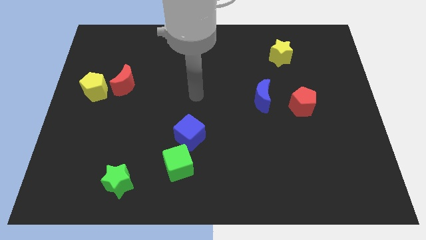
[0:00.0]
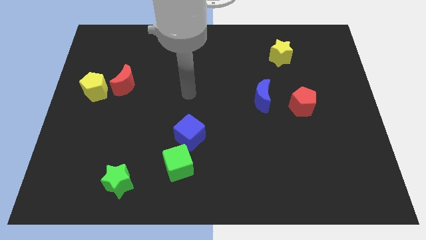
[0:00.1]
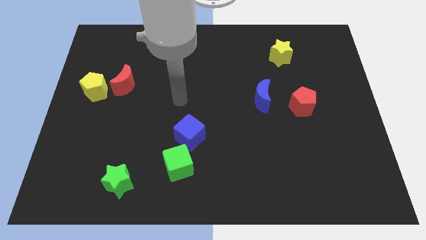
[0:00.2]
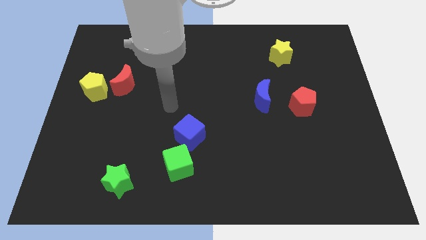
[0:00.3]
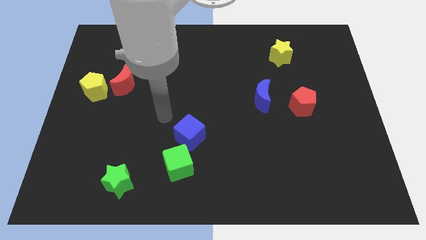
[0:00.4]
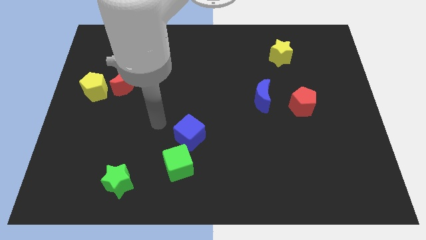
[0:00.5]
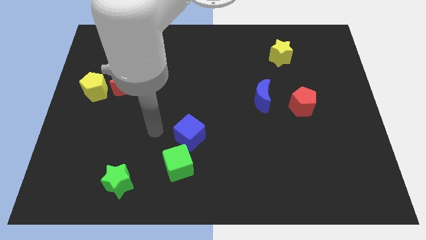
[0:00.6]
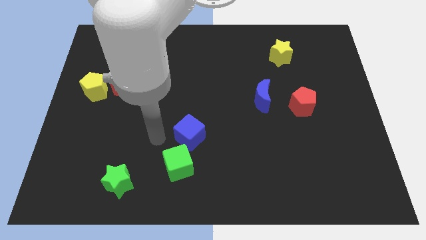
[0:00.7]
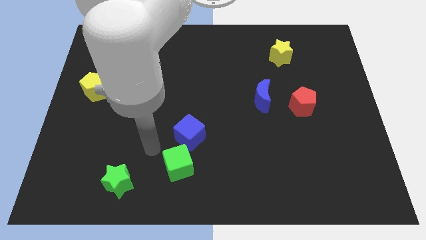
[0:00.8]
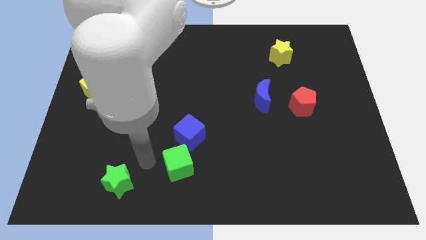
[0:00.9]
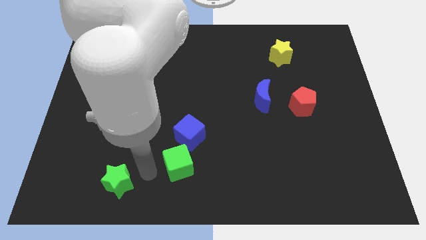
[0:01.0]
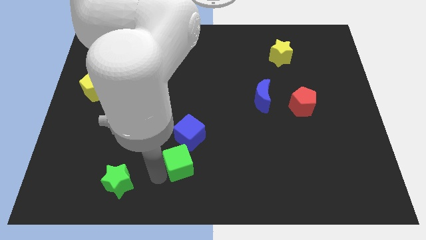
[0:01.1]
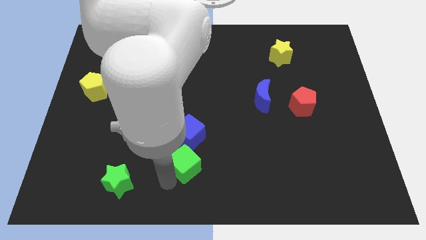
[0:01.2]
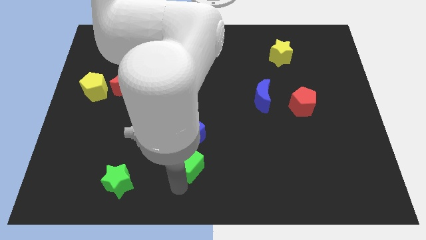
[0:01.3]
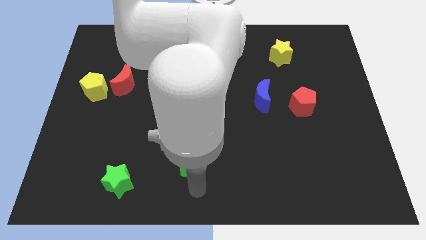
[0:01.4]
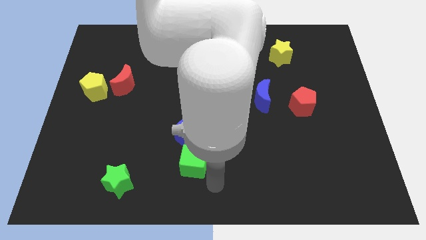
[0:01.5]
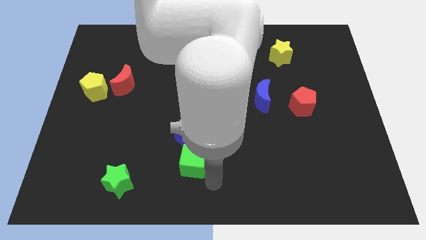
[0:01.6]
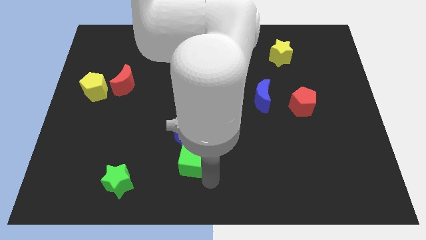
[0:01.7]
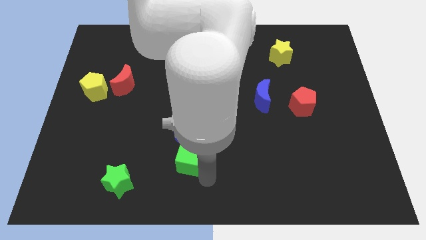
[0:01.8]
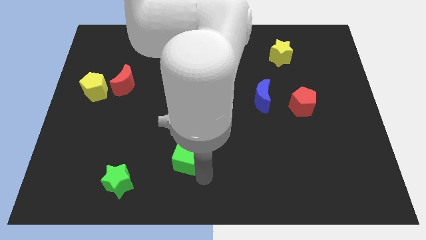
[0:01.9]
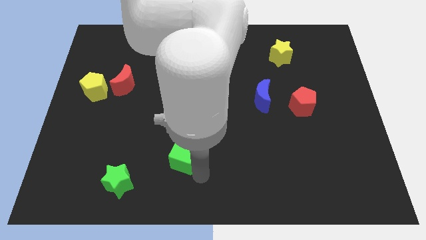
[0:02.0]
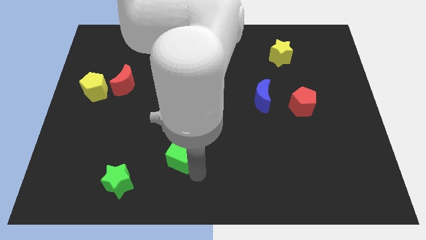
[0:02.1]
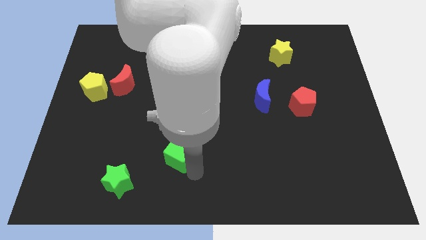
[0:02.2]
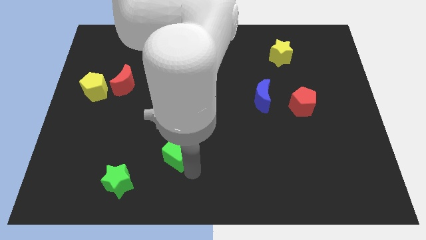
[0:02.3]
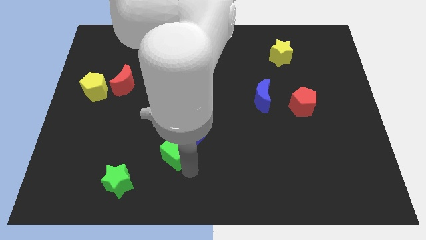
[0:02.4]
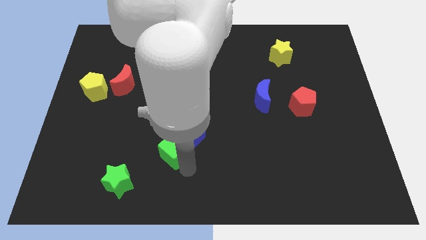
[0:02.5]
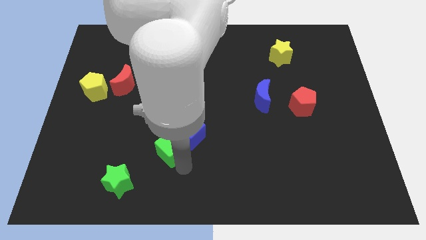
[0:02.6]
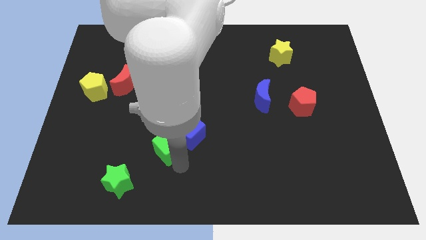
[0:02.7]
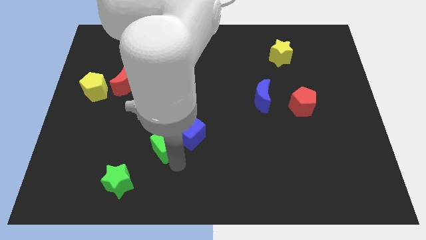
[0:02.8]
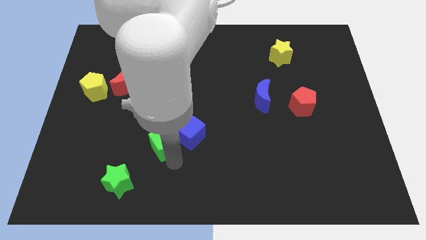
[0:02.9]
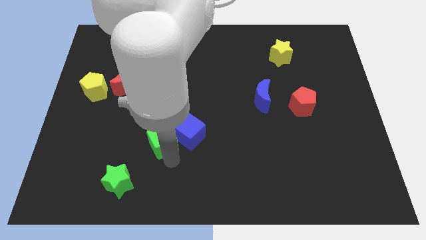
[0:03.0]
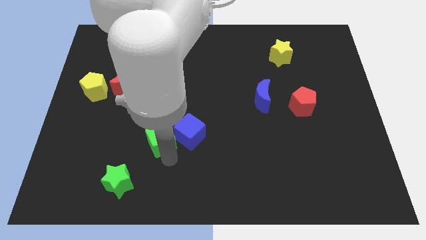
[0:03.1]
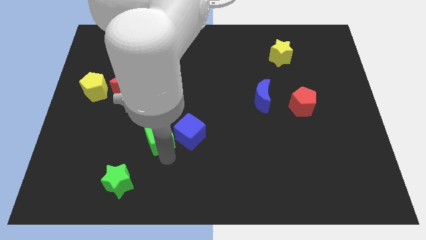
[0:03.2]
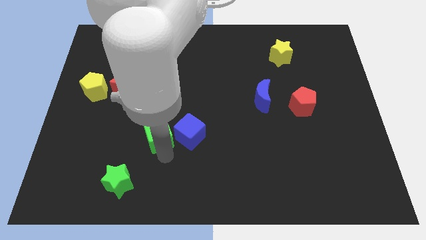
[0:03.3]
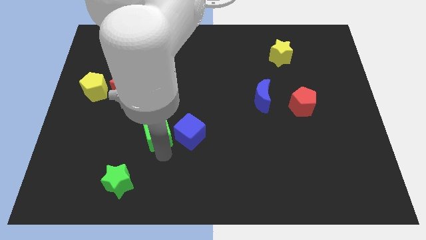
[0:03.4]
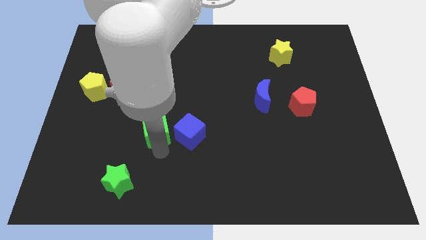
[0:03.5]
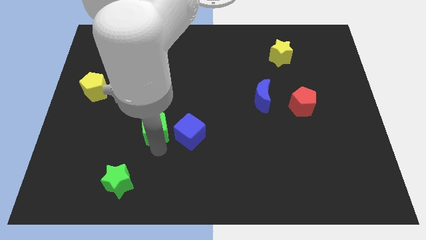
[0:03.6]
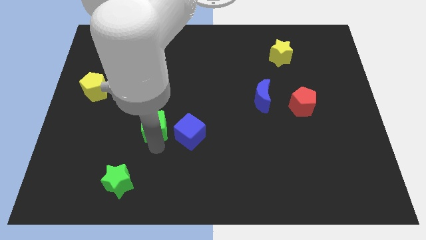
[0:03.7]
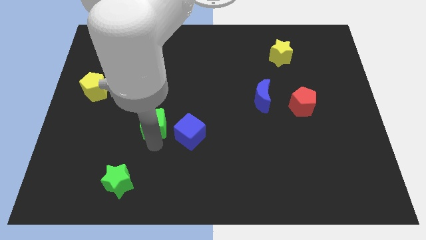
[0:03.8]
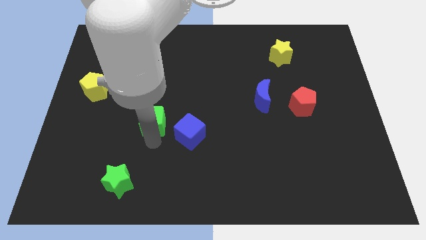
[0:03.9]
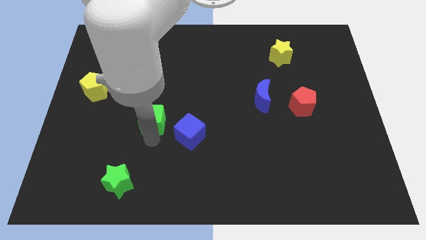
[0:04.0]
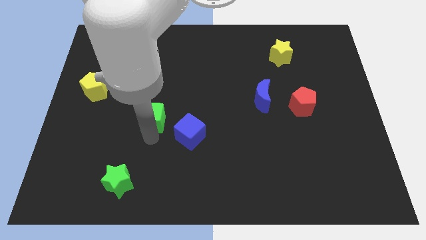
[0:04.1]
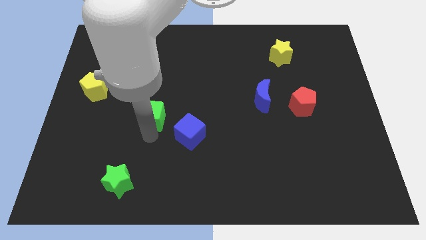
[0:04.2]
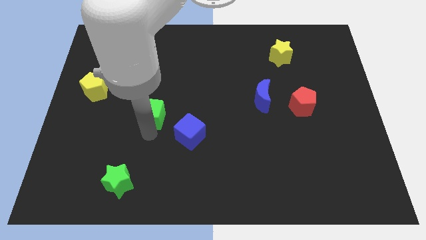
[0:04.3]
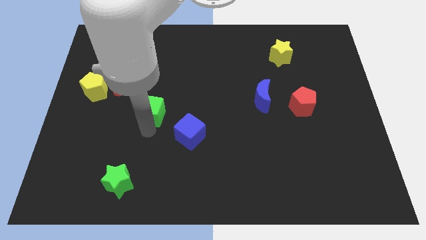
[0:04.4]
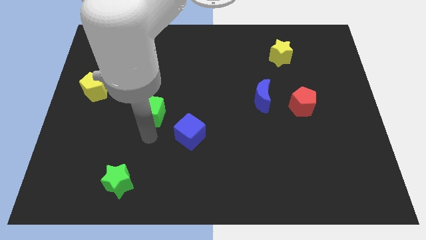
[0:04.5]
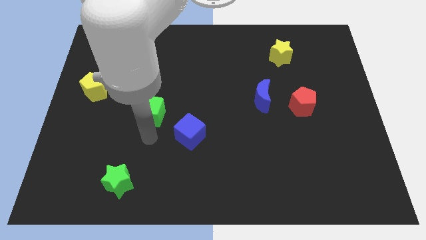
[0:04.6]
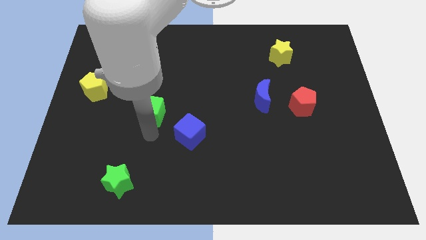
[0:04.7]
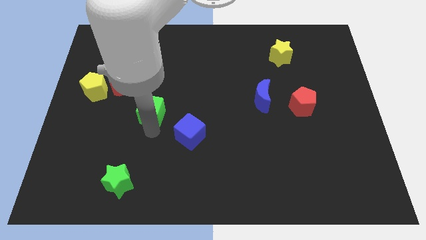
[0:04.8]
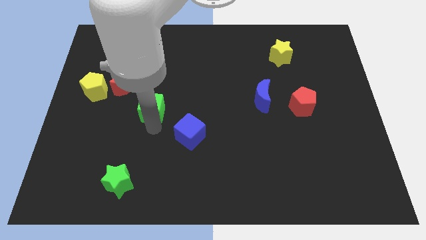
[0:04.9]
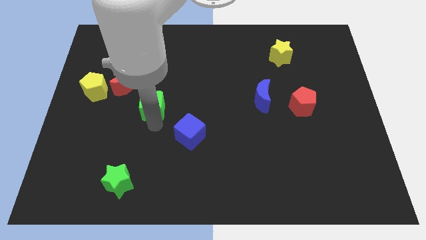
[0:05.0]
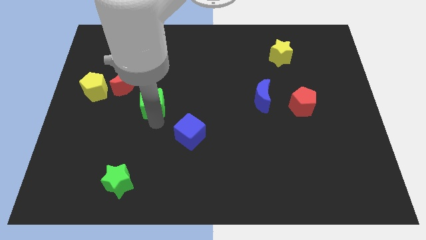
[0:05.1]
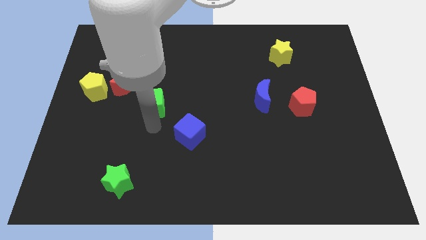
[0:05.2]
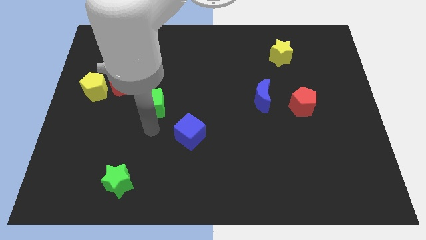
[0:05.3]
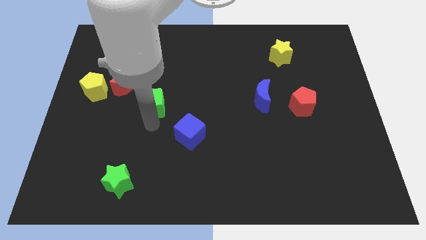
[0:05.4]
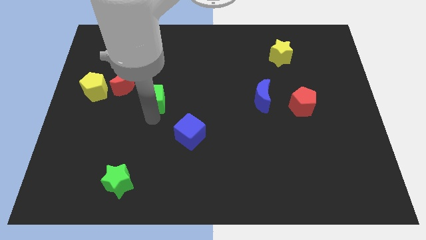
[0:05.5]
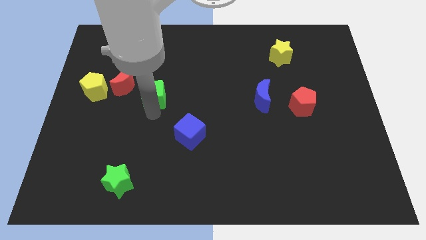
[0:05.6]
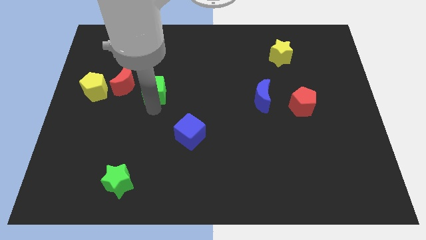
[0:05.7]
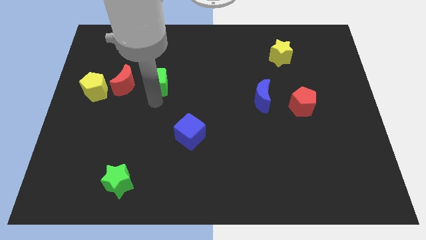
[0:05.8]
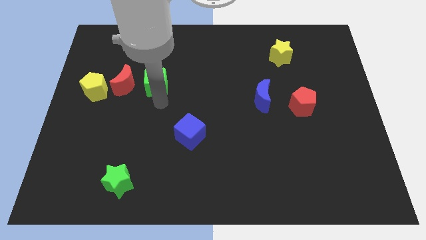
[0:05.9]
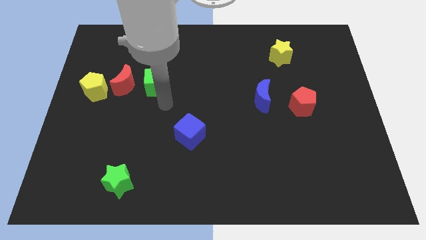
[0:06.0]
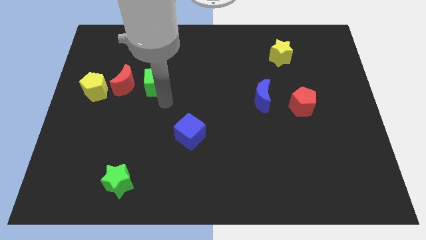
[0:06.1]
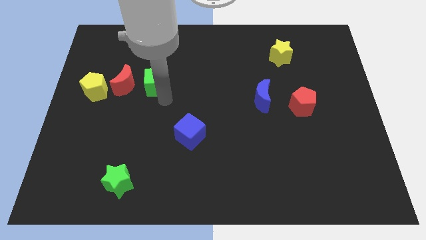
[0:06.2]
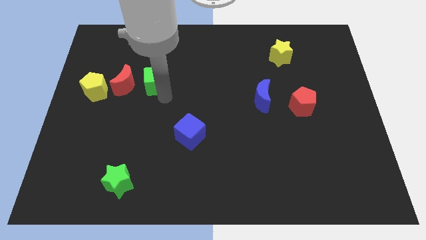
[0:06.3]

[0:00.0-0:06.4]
put the green cube to the top right side of the red moon
